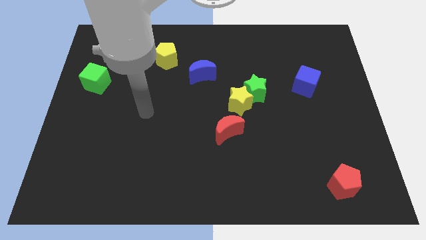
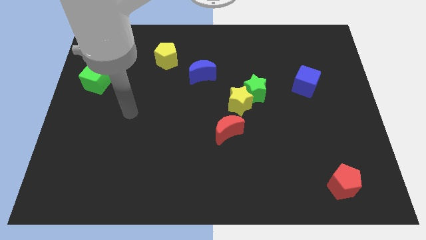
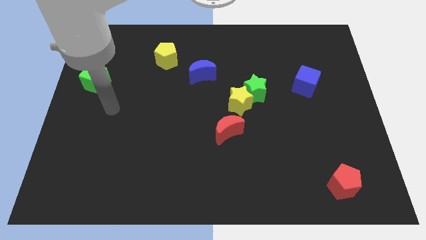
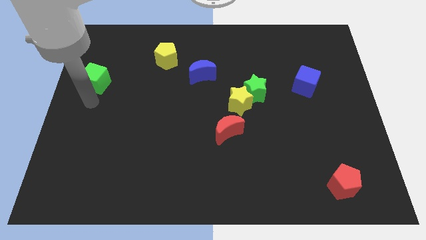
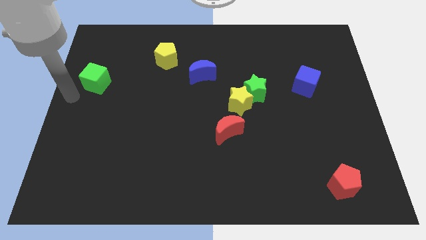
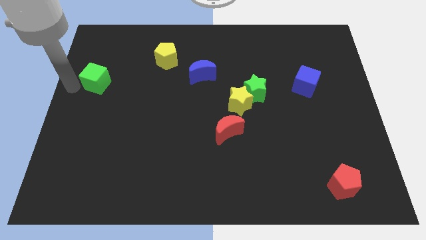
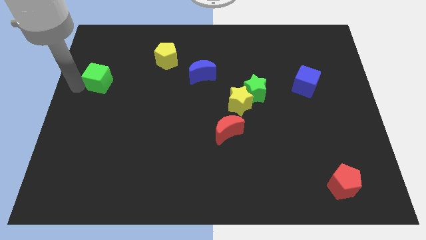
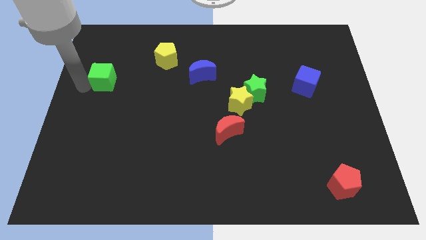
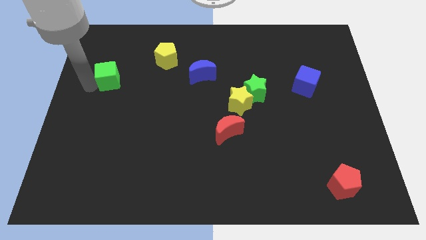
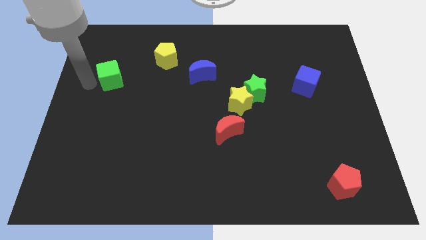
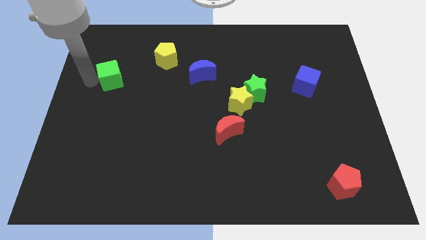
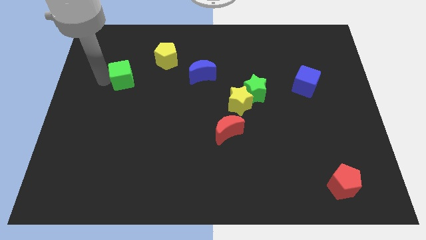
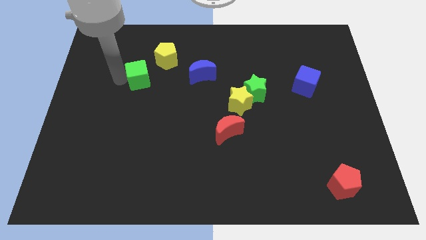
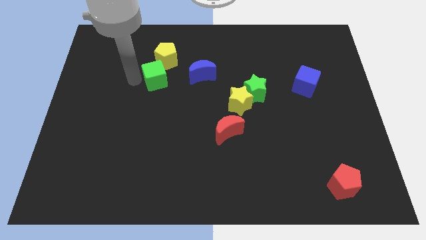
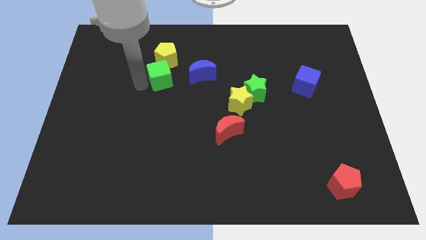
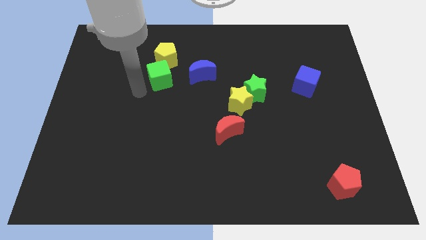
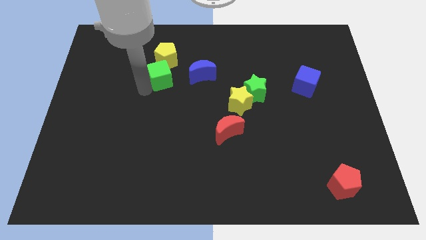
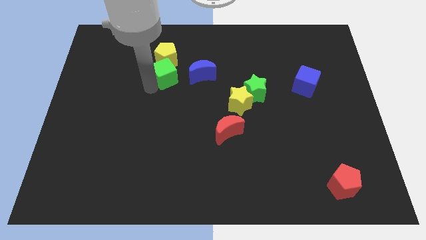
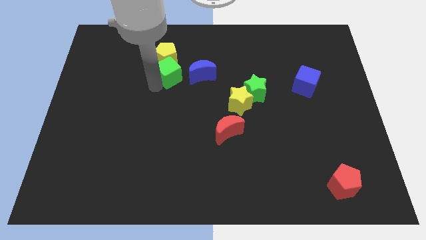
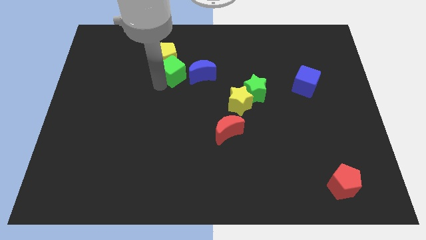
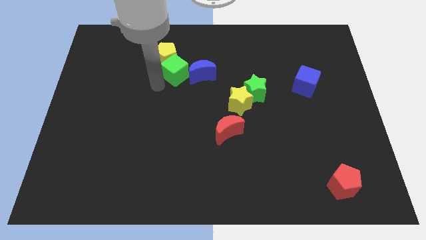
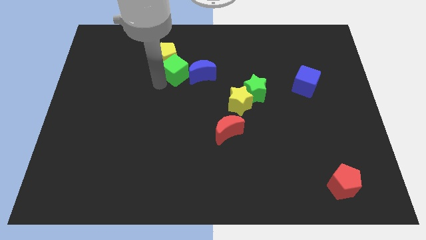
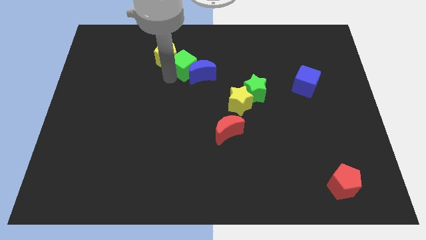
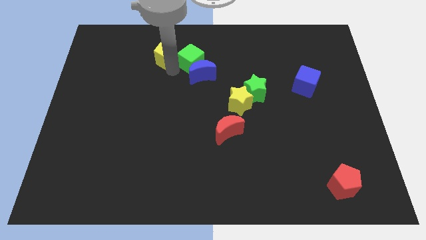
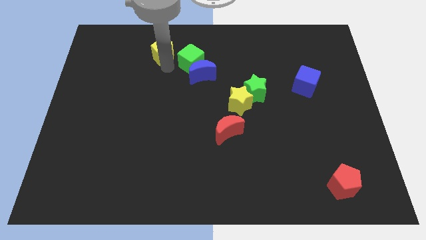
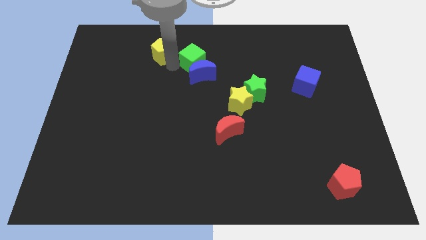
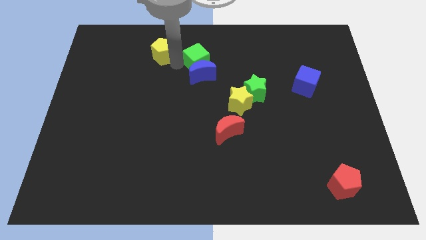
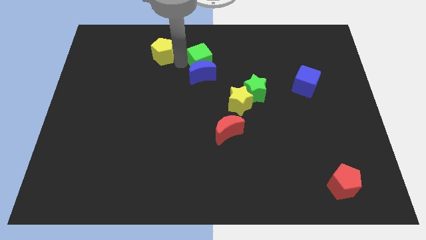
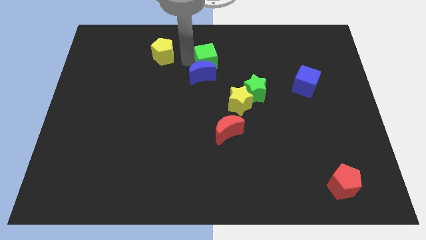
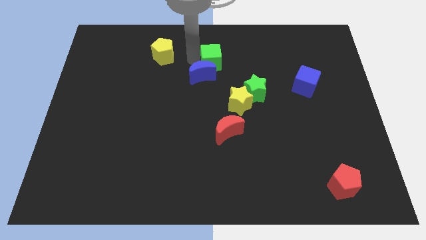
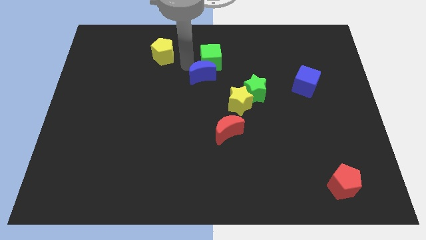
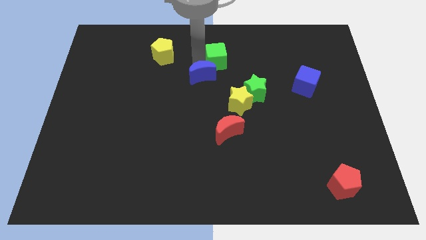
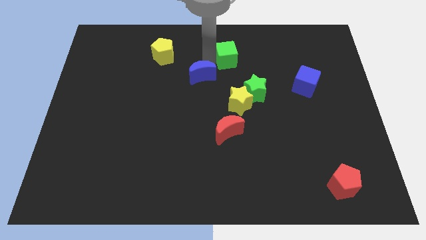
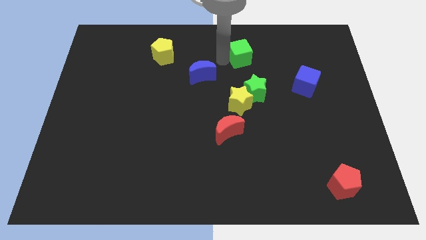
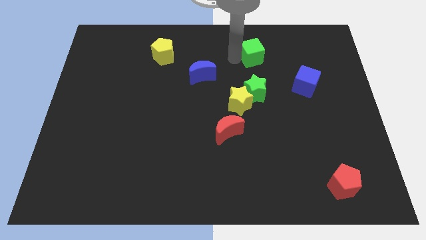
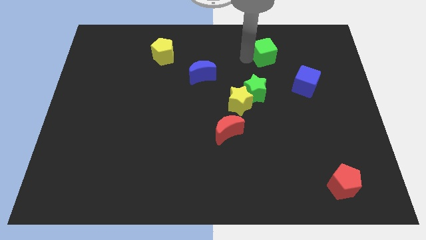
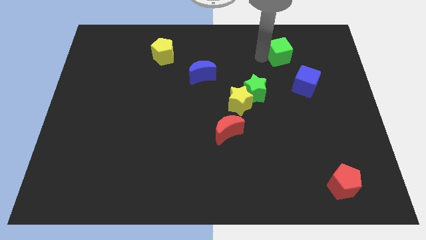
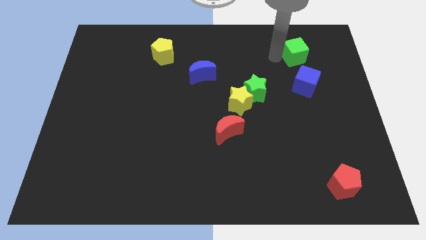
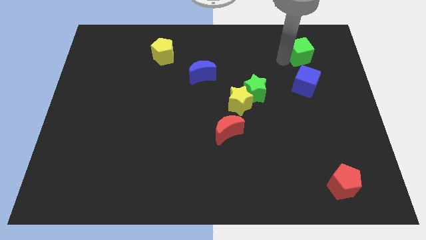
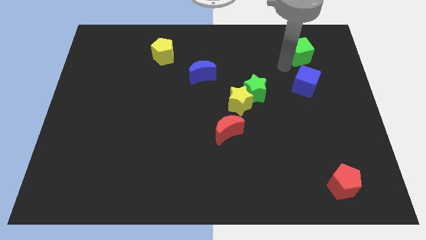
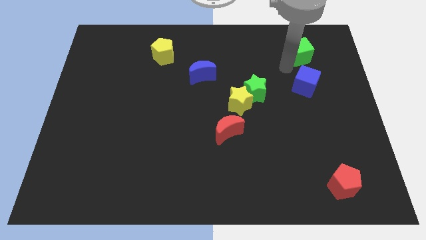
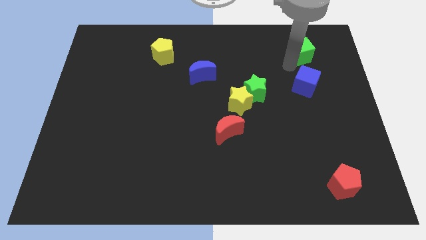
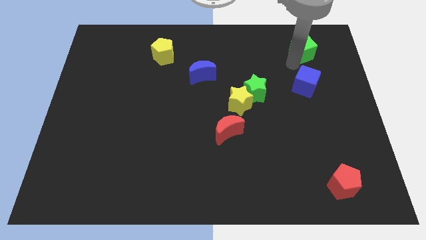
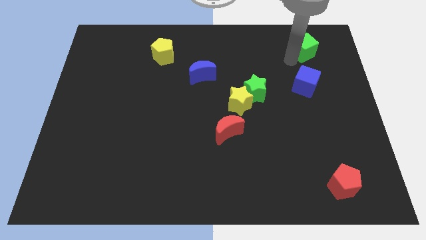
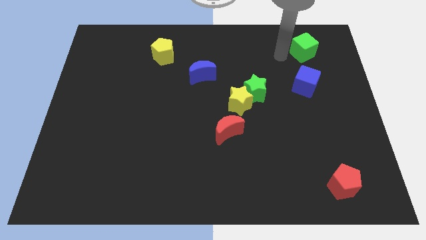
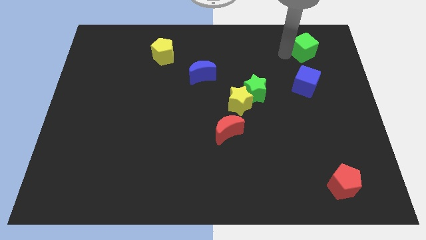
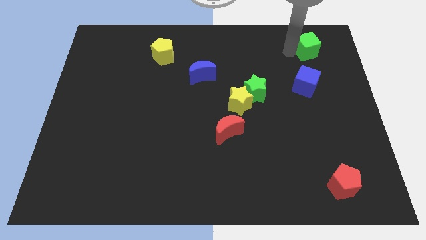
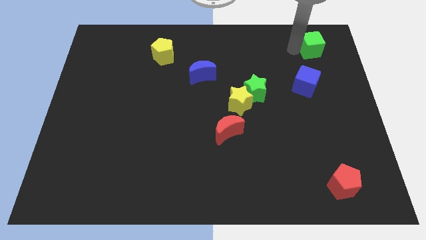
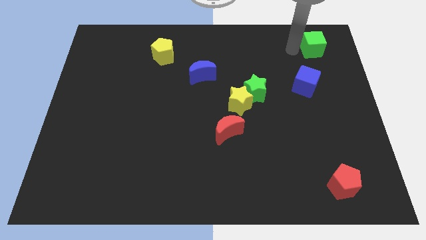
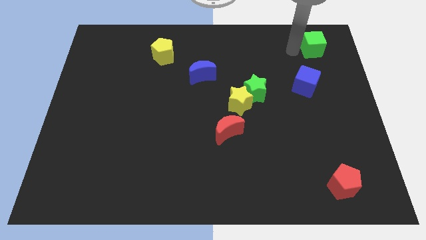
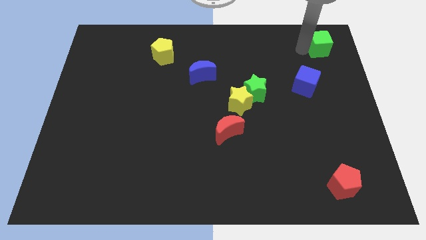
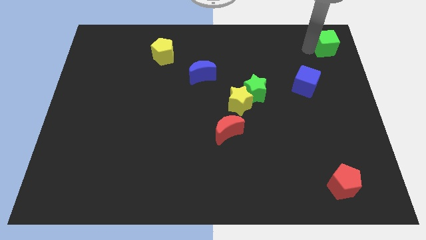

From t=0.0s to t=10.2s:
slide the green cube to the top right

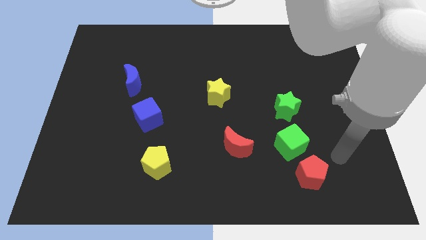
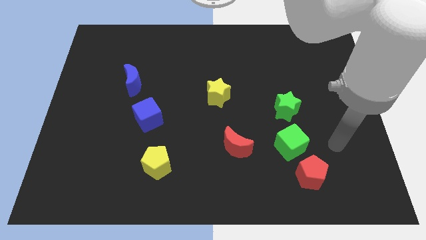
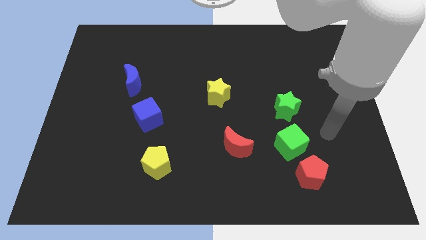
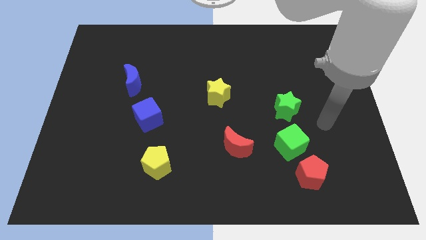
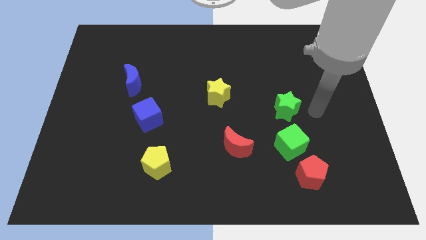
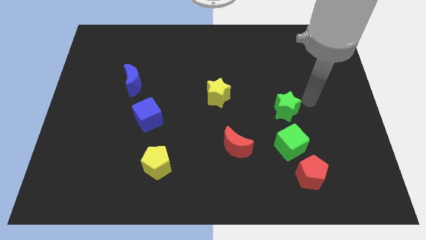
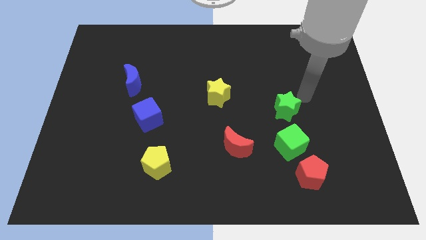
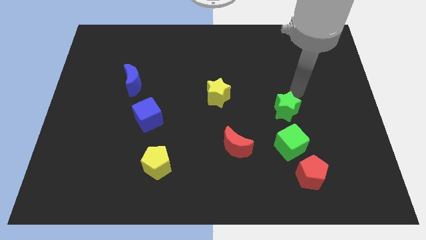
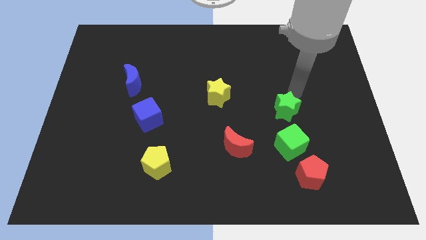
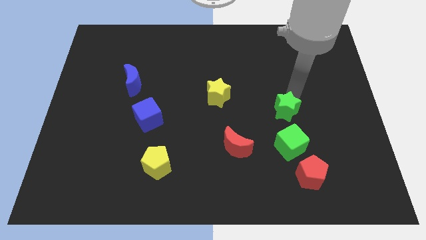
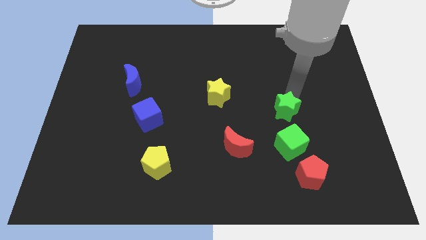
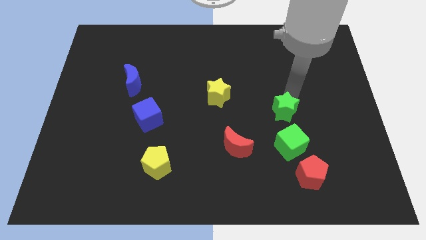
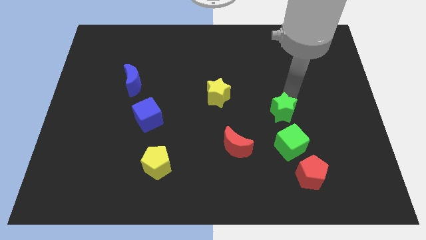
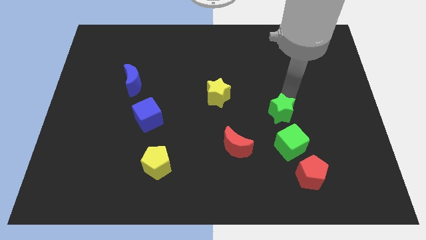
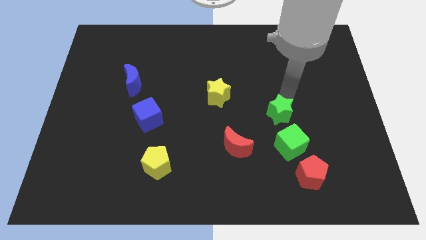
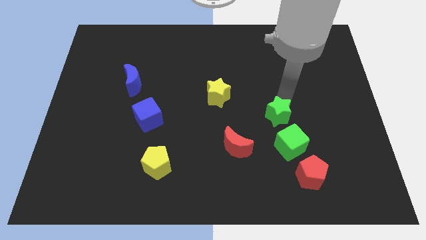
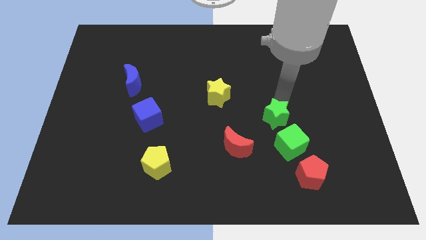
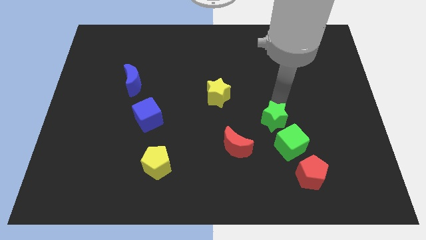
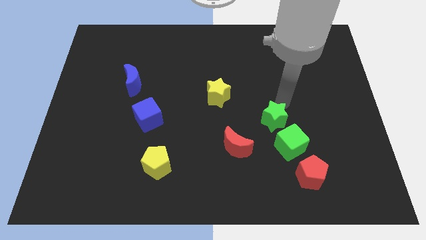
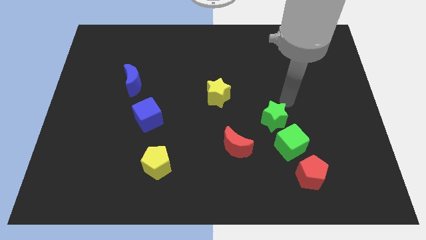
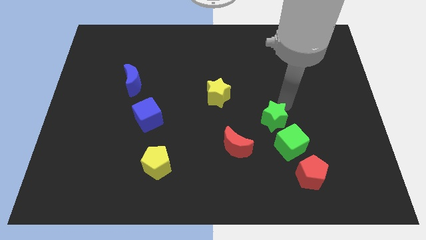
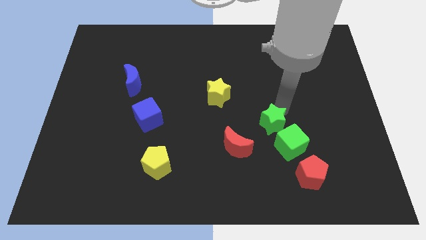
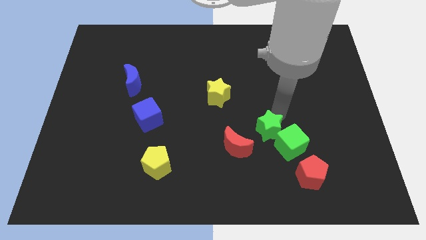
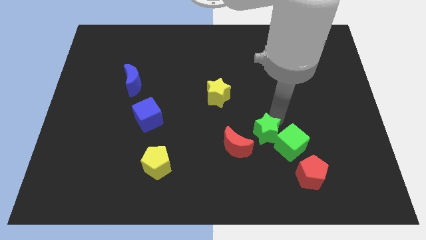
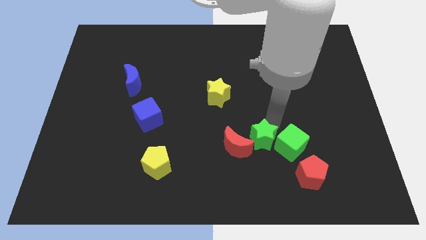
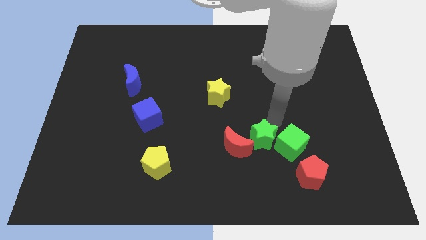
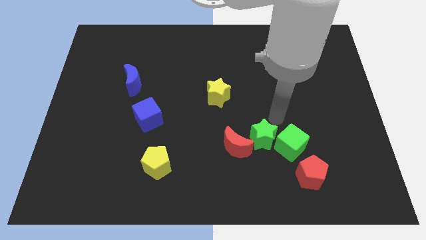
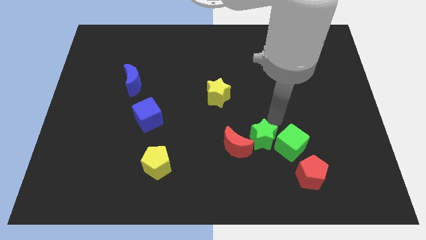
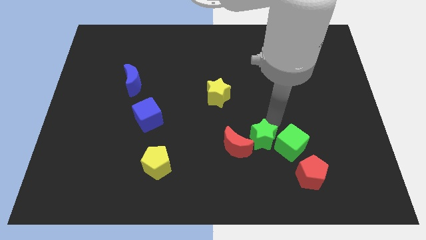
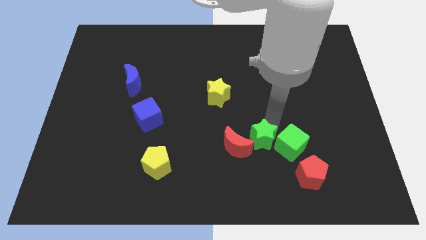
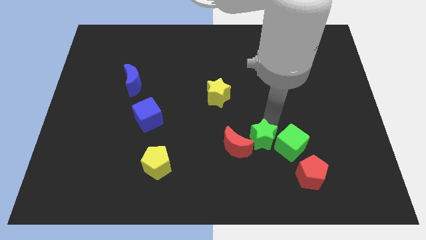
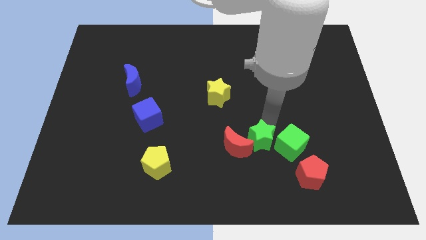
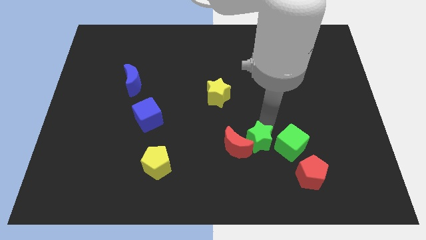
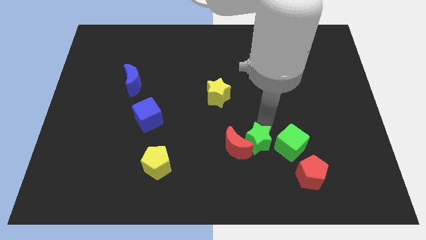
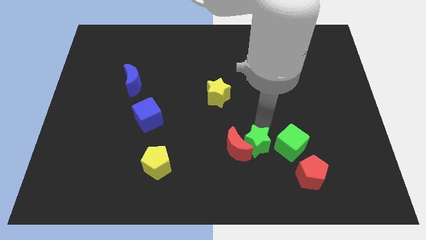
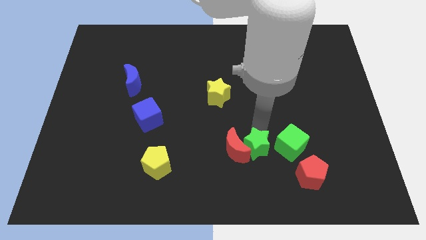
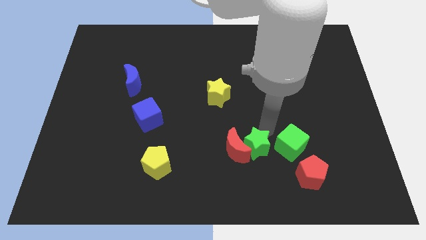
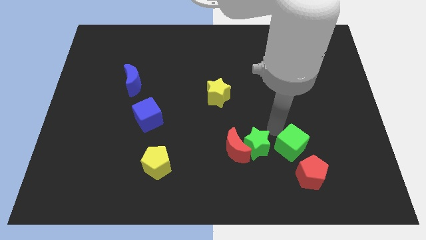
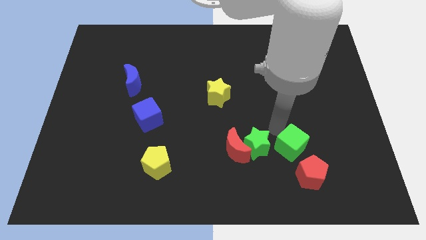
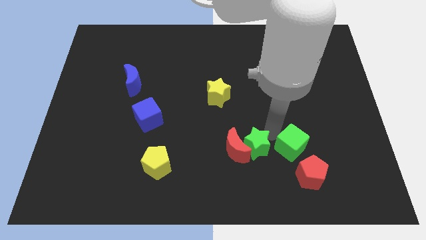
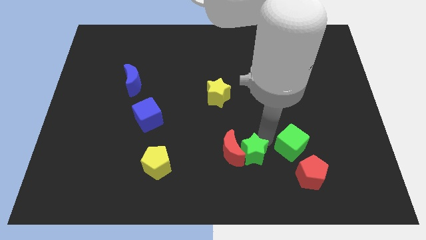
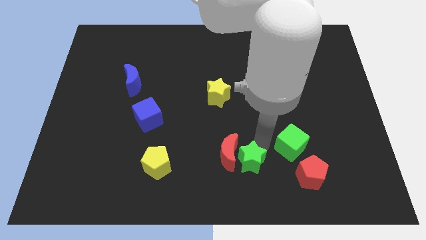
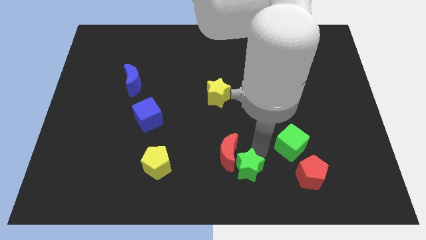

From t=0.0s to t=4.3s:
move the green star to the bottom side
